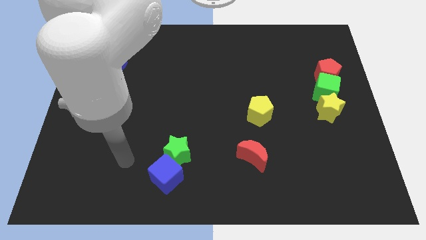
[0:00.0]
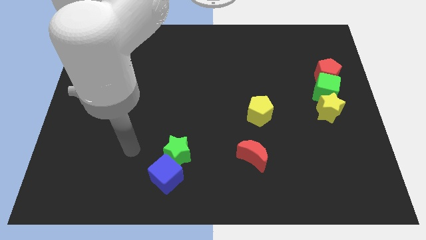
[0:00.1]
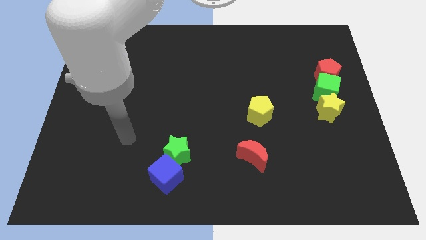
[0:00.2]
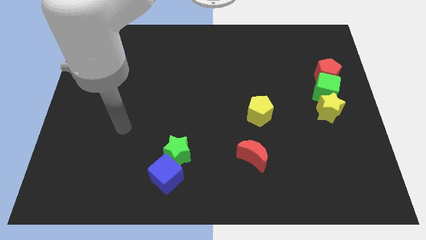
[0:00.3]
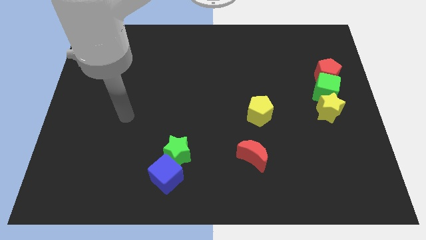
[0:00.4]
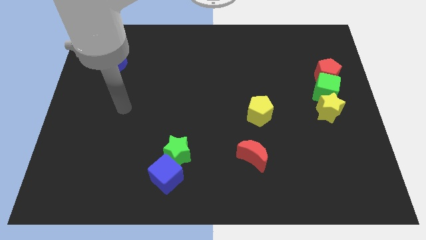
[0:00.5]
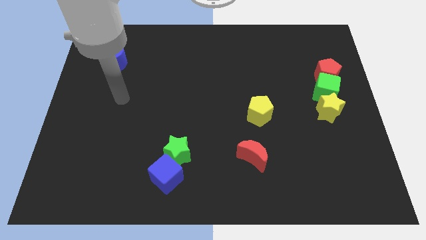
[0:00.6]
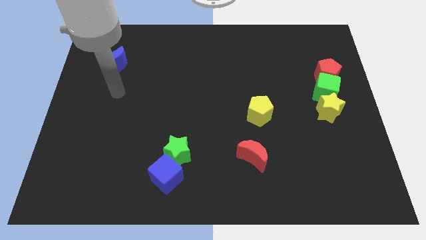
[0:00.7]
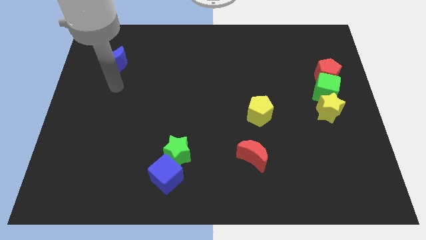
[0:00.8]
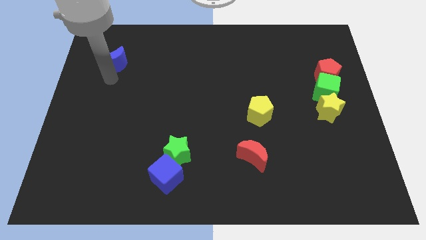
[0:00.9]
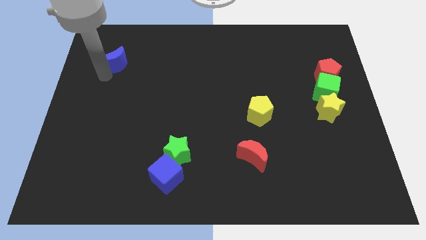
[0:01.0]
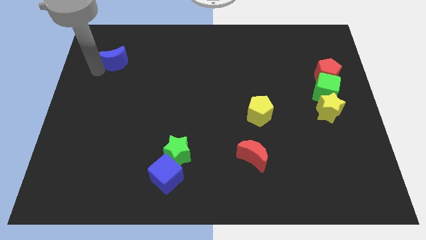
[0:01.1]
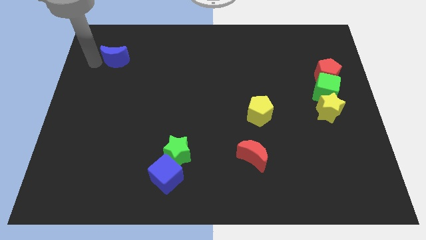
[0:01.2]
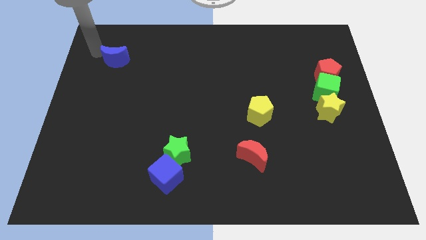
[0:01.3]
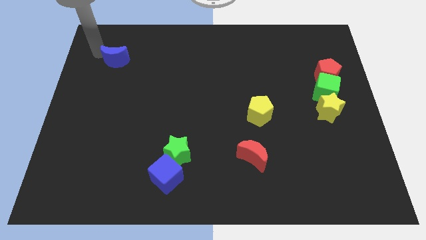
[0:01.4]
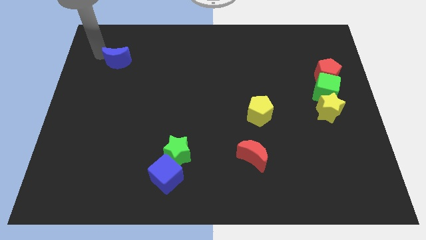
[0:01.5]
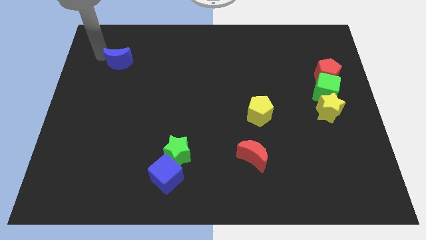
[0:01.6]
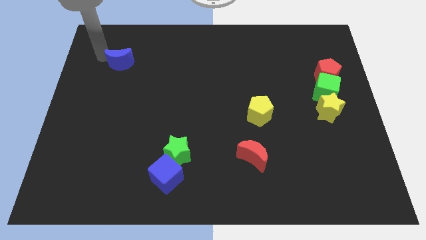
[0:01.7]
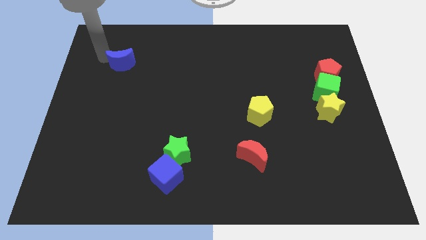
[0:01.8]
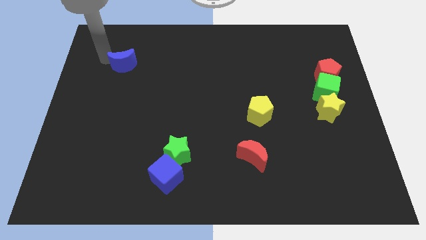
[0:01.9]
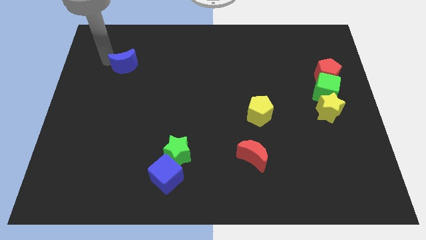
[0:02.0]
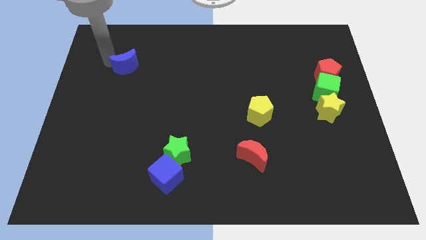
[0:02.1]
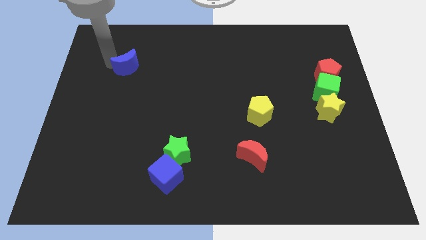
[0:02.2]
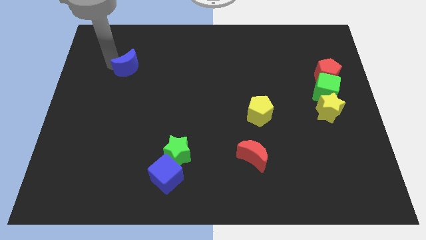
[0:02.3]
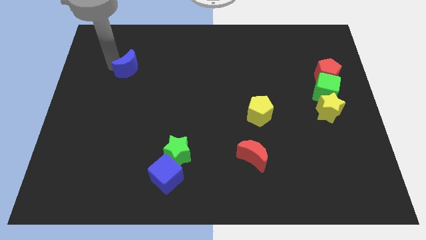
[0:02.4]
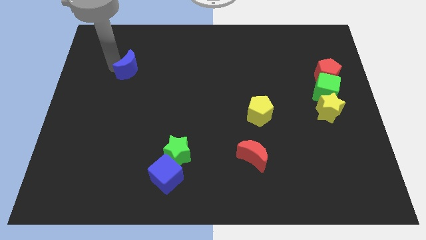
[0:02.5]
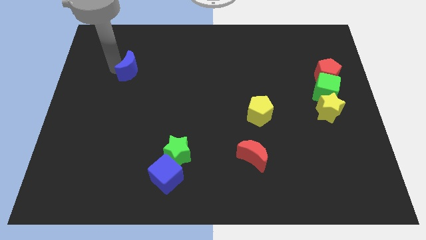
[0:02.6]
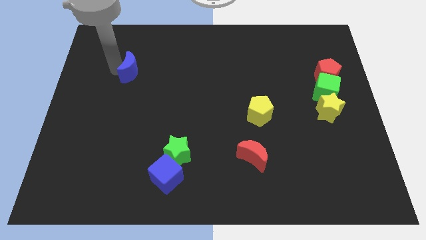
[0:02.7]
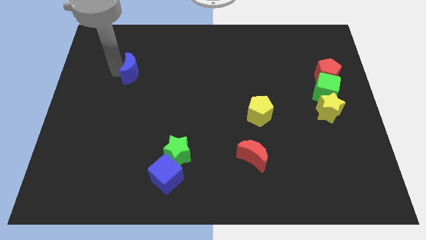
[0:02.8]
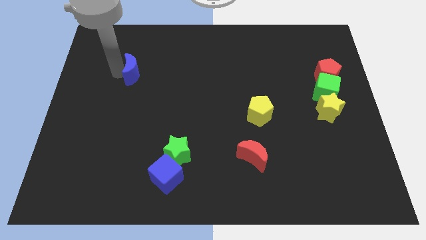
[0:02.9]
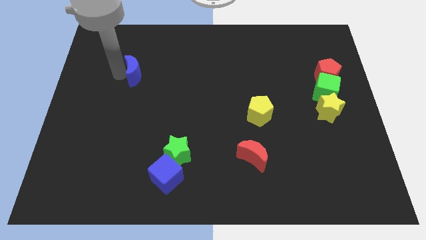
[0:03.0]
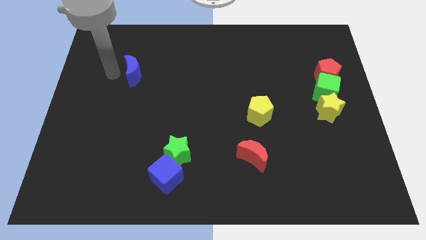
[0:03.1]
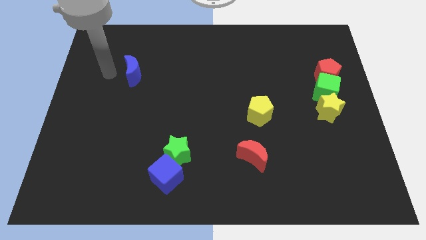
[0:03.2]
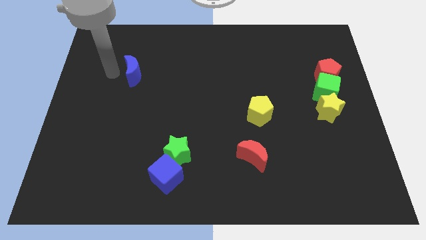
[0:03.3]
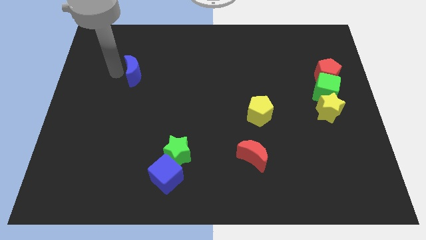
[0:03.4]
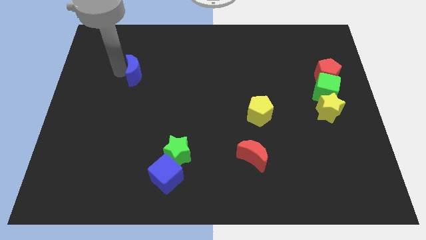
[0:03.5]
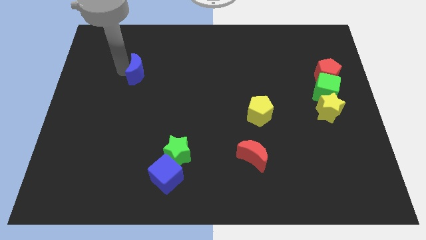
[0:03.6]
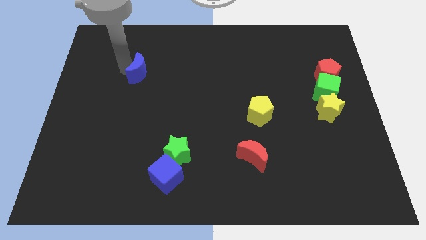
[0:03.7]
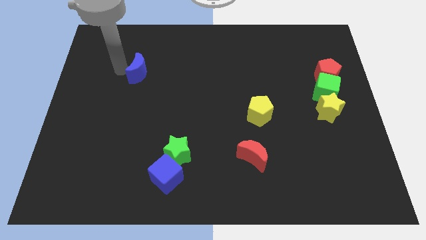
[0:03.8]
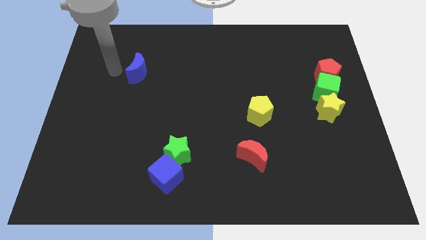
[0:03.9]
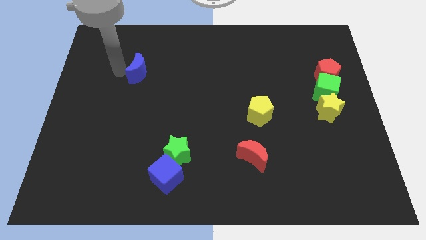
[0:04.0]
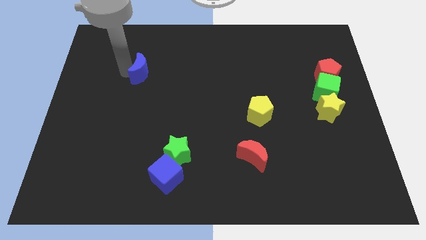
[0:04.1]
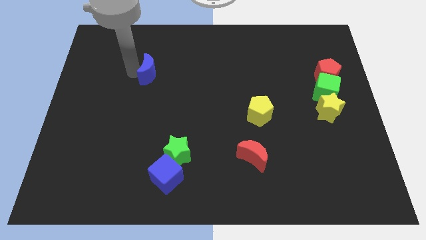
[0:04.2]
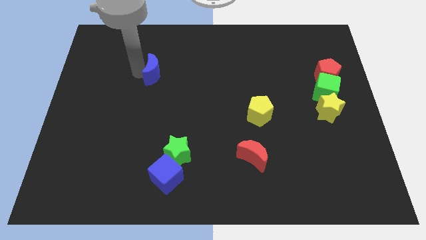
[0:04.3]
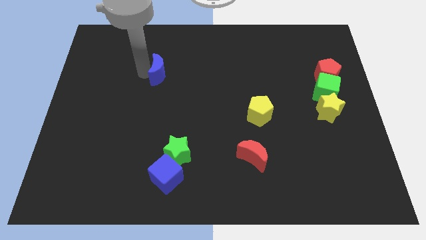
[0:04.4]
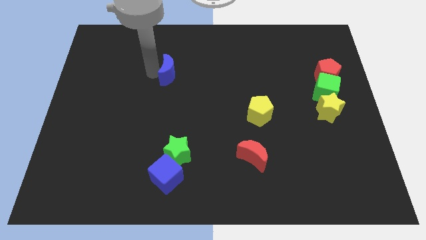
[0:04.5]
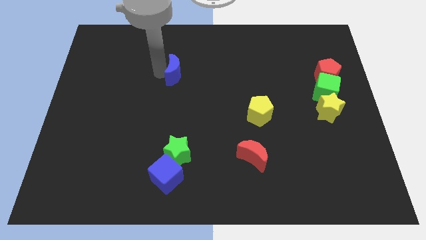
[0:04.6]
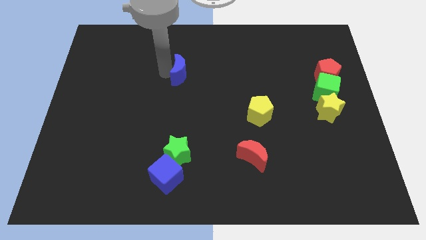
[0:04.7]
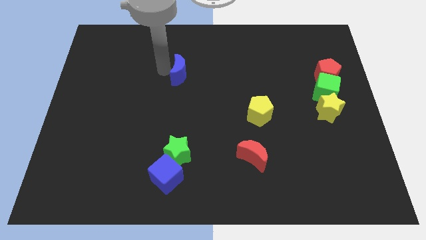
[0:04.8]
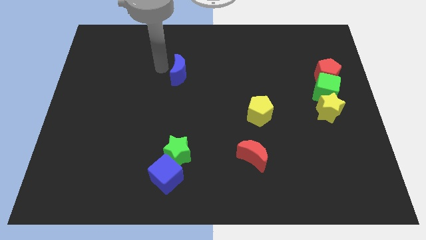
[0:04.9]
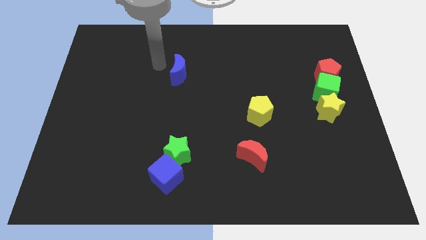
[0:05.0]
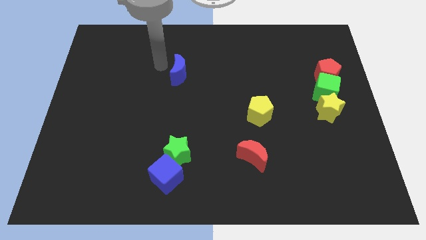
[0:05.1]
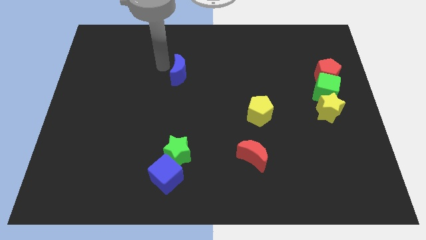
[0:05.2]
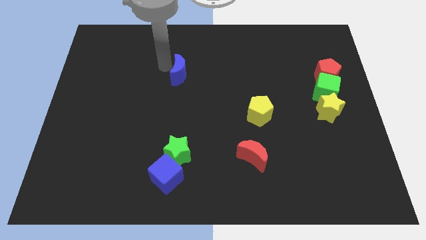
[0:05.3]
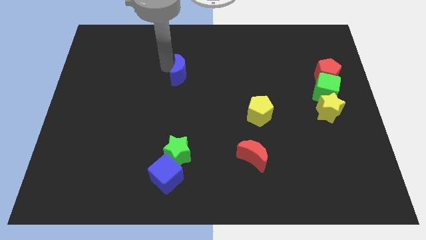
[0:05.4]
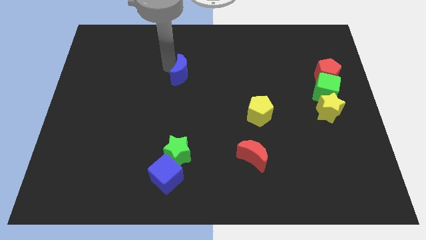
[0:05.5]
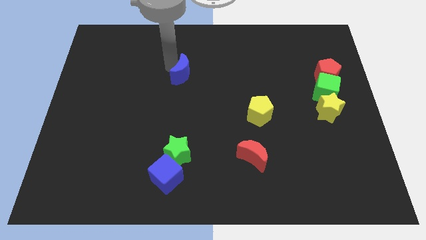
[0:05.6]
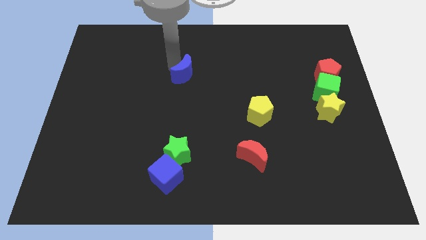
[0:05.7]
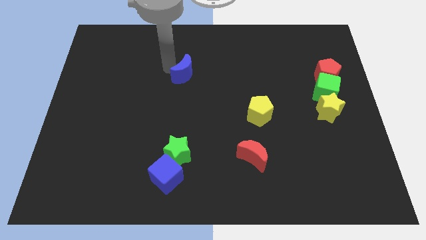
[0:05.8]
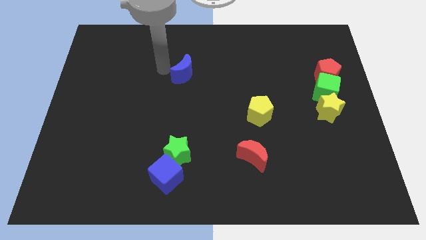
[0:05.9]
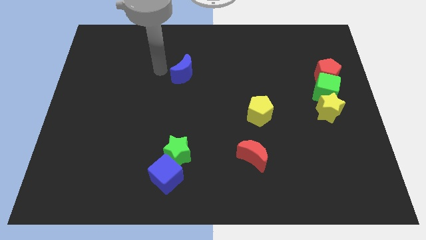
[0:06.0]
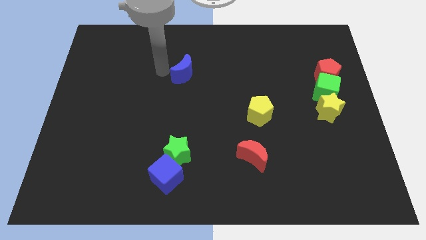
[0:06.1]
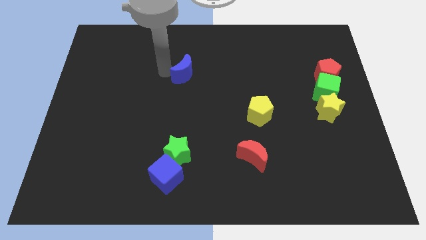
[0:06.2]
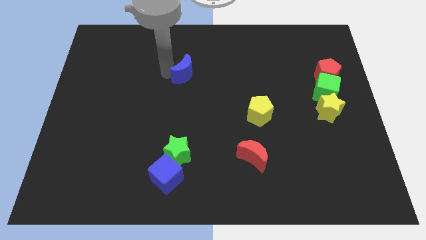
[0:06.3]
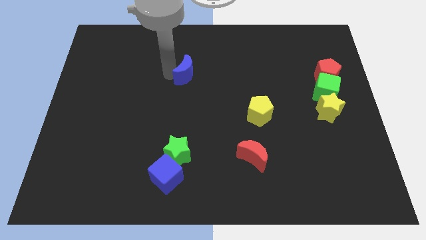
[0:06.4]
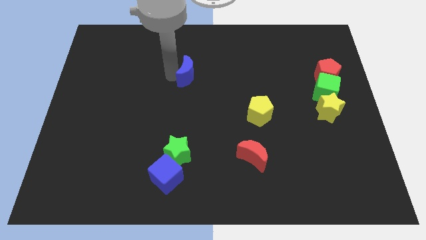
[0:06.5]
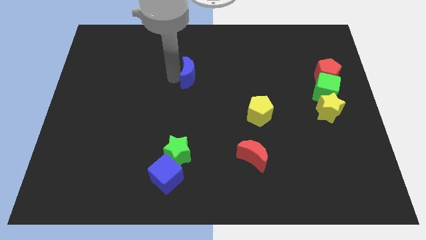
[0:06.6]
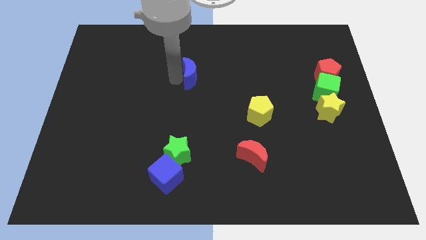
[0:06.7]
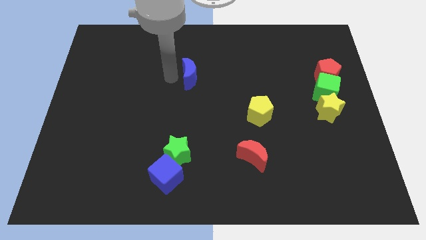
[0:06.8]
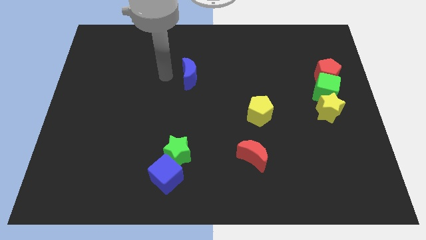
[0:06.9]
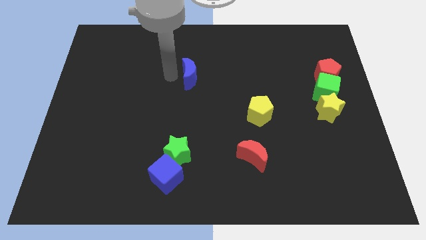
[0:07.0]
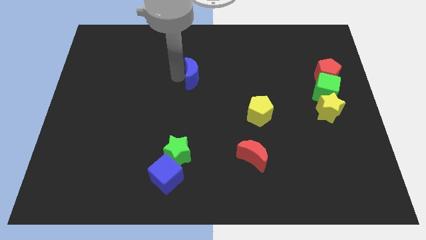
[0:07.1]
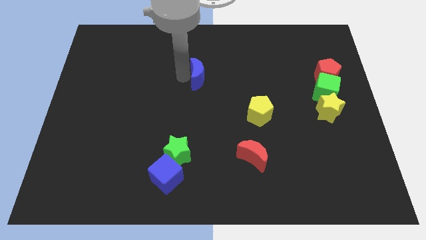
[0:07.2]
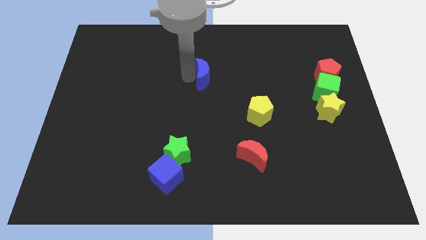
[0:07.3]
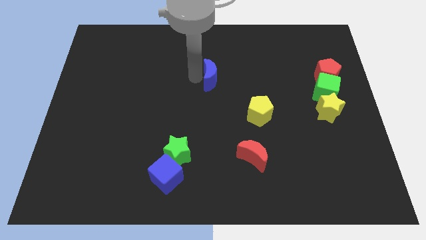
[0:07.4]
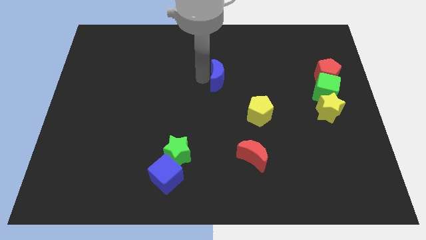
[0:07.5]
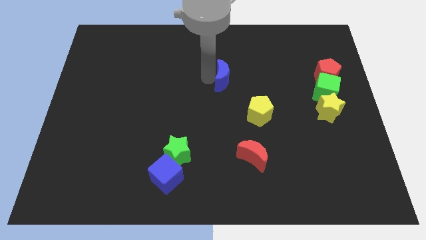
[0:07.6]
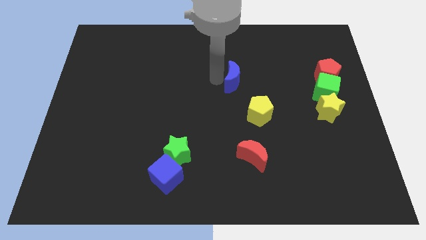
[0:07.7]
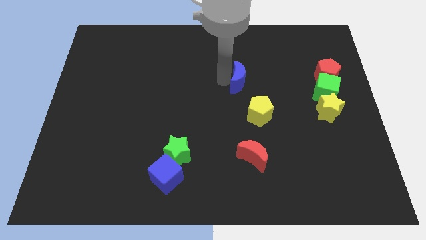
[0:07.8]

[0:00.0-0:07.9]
put the blue moon to the top of the yellow pentagon
